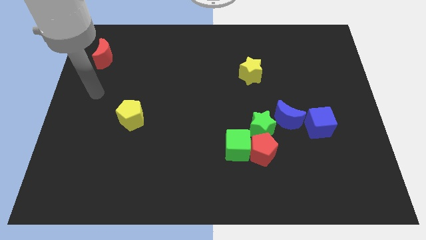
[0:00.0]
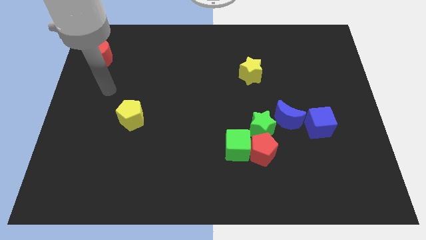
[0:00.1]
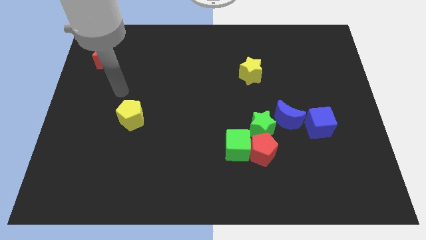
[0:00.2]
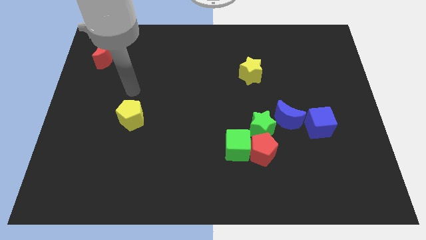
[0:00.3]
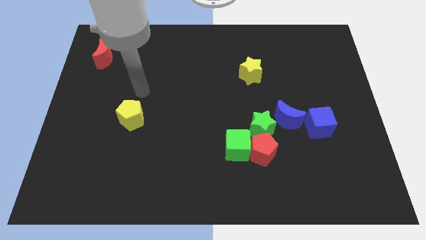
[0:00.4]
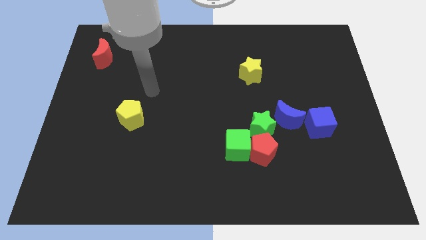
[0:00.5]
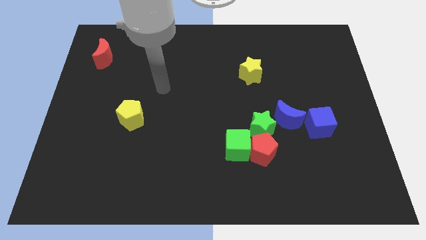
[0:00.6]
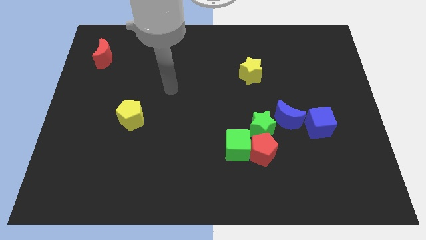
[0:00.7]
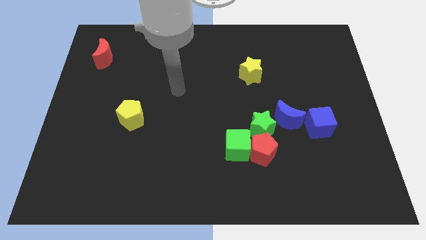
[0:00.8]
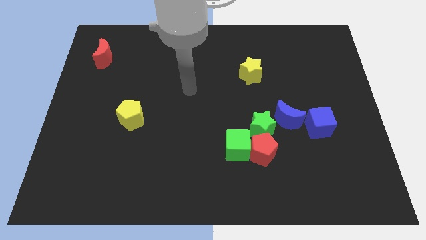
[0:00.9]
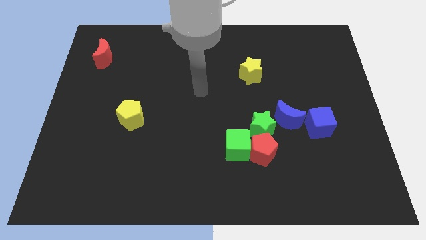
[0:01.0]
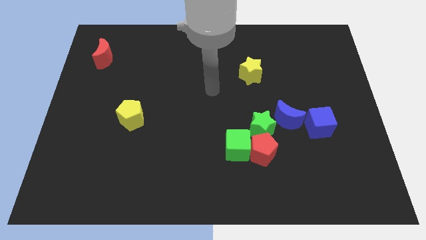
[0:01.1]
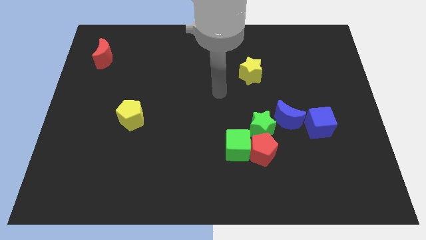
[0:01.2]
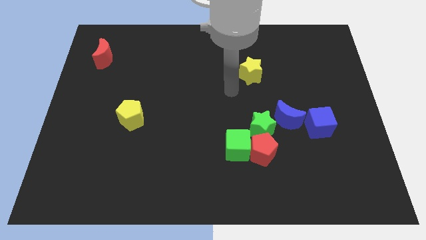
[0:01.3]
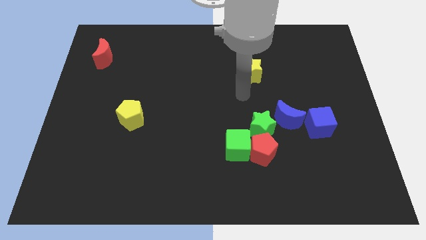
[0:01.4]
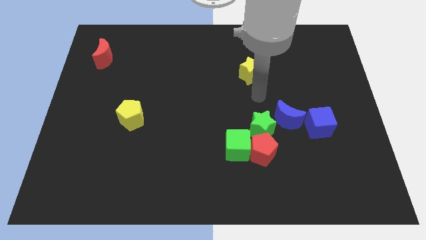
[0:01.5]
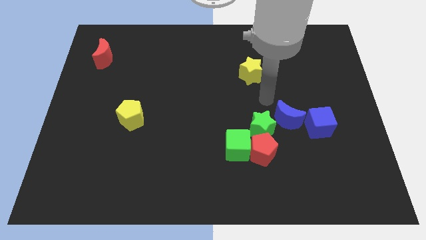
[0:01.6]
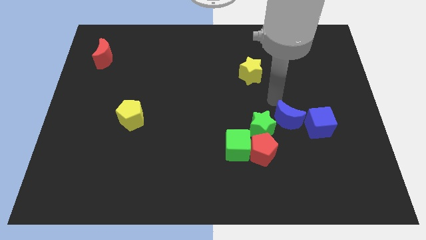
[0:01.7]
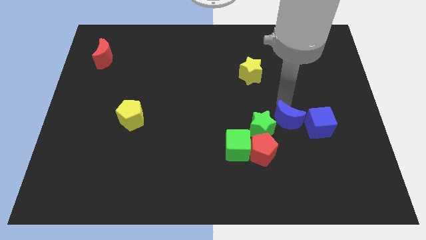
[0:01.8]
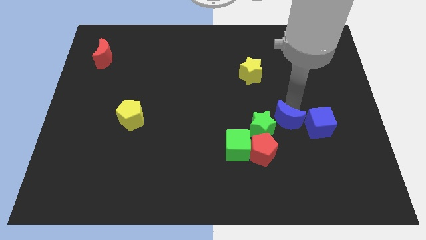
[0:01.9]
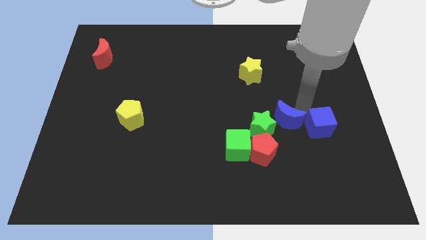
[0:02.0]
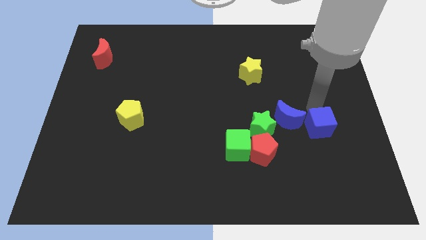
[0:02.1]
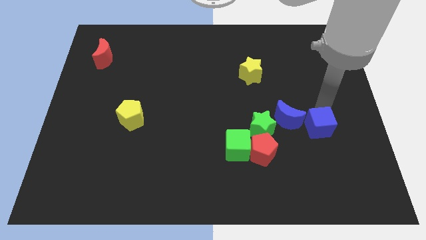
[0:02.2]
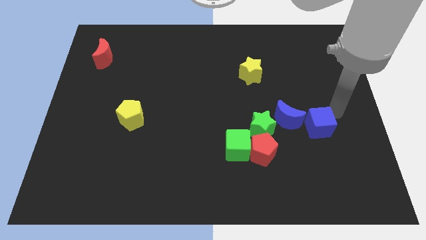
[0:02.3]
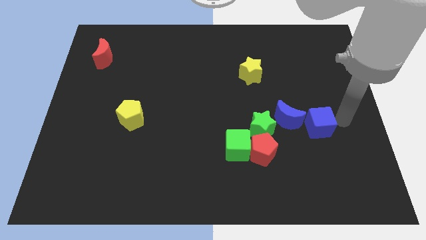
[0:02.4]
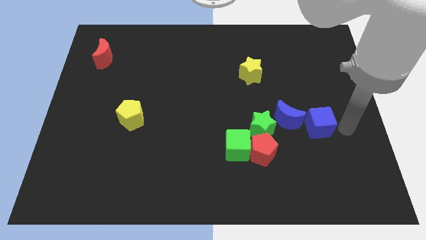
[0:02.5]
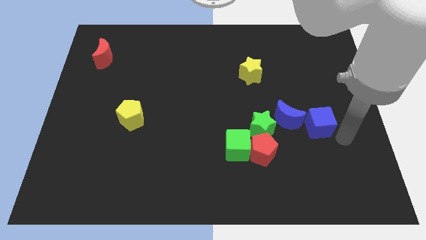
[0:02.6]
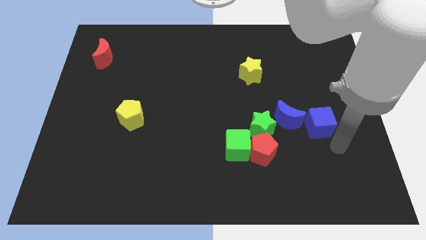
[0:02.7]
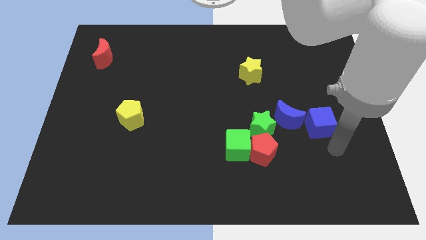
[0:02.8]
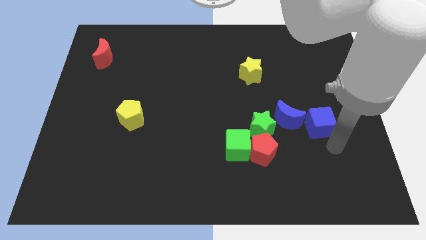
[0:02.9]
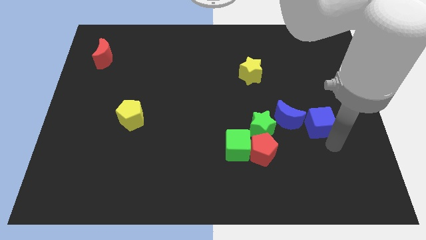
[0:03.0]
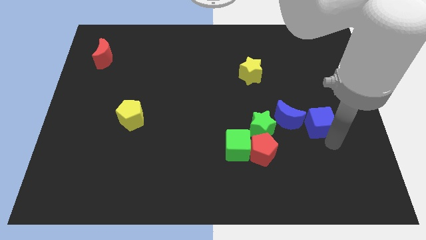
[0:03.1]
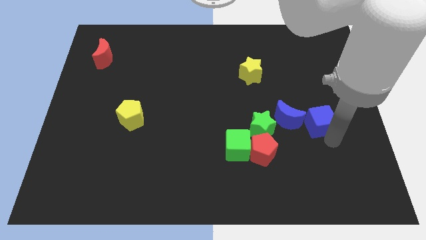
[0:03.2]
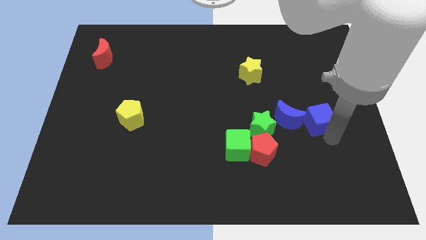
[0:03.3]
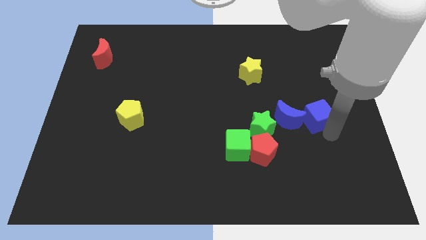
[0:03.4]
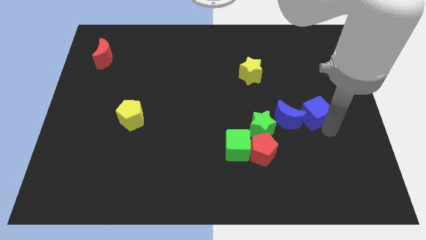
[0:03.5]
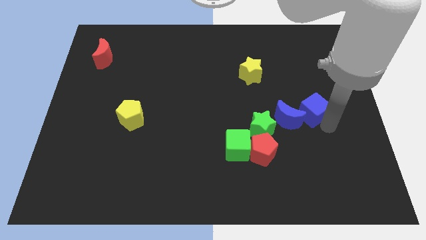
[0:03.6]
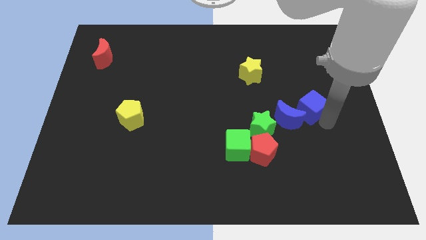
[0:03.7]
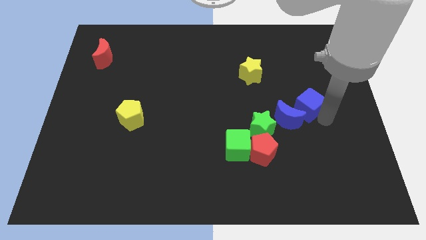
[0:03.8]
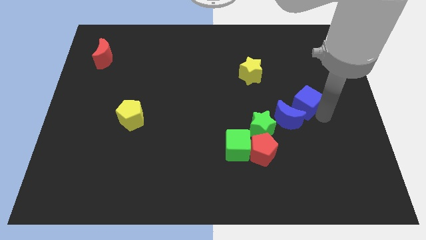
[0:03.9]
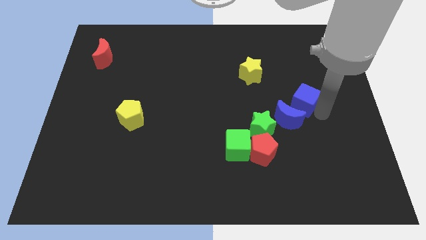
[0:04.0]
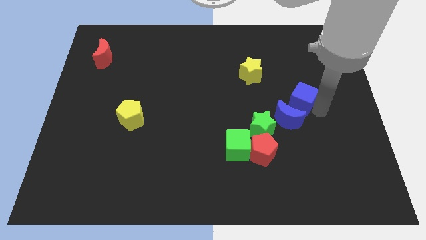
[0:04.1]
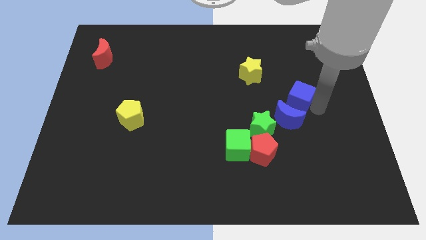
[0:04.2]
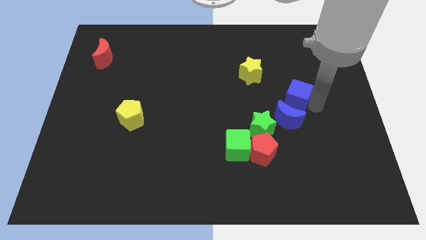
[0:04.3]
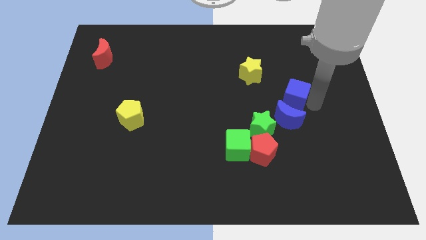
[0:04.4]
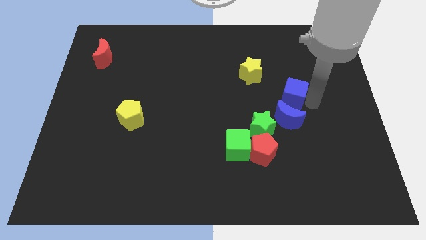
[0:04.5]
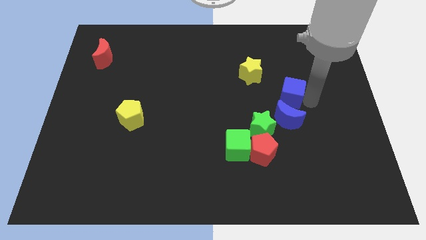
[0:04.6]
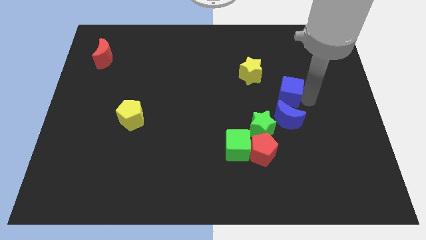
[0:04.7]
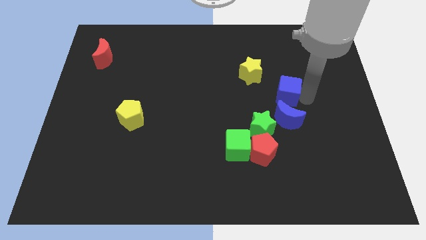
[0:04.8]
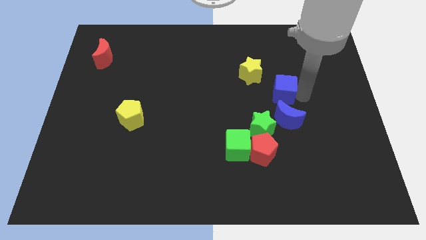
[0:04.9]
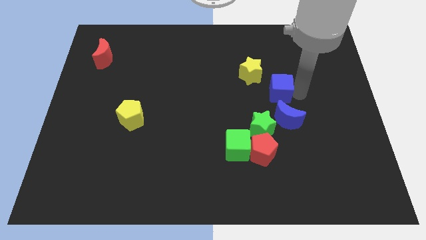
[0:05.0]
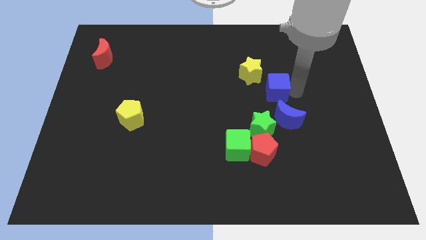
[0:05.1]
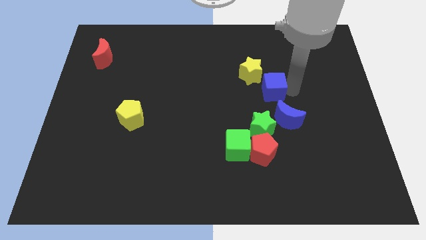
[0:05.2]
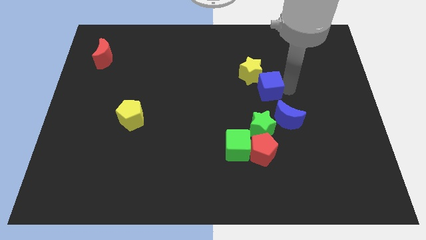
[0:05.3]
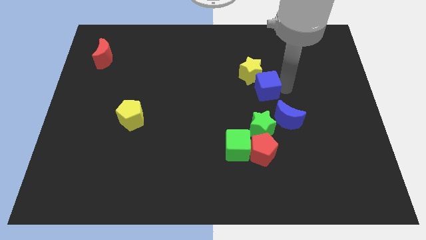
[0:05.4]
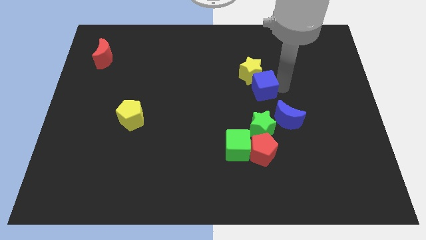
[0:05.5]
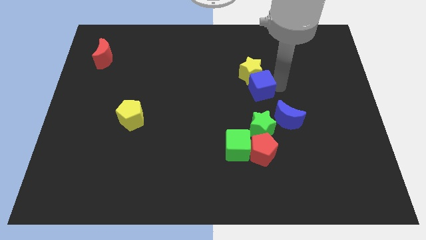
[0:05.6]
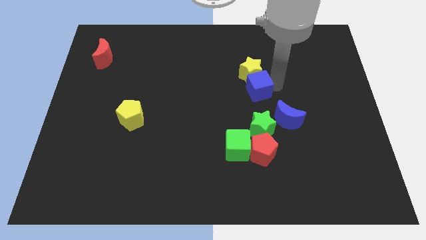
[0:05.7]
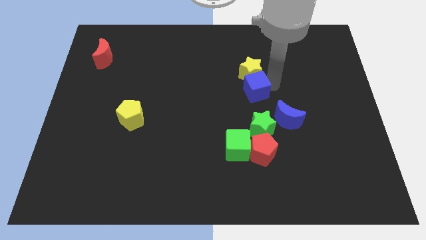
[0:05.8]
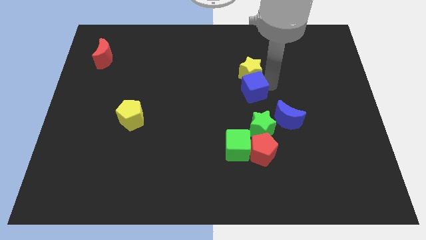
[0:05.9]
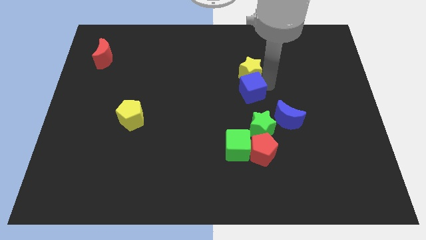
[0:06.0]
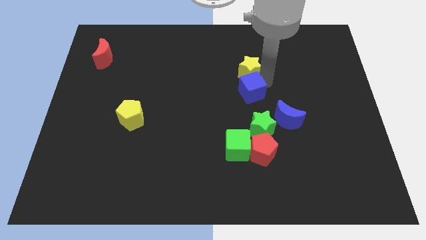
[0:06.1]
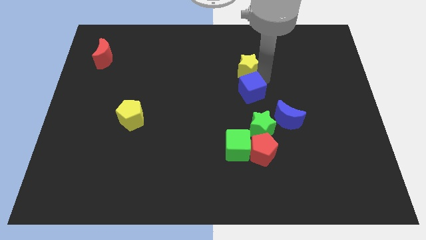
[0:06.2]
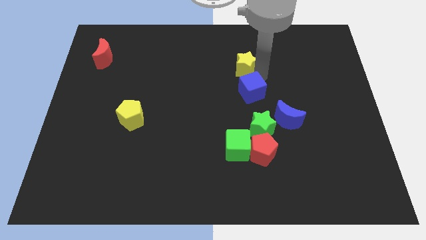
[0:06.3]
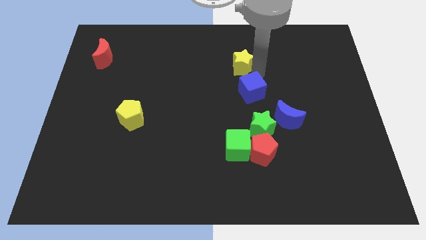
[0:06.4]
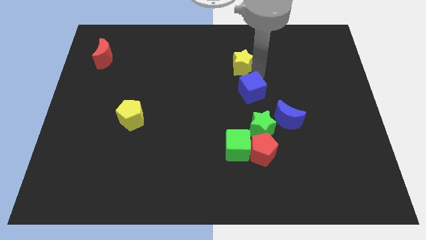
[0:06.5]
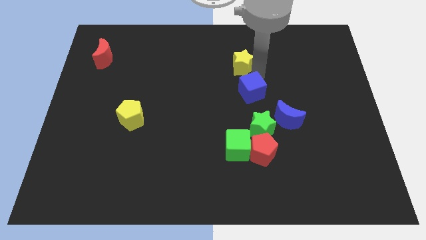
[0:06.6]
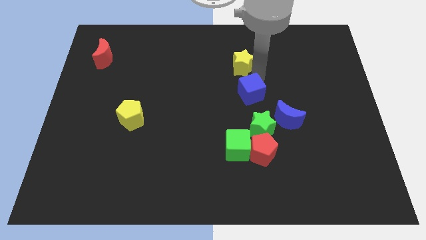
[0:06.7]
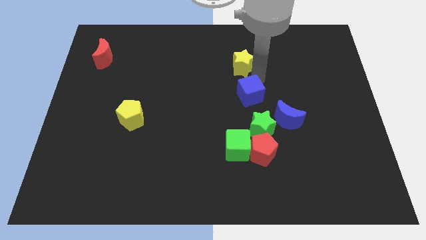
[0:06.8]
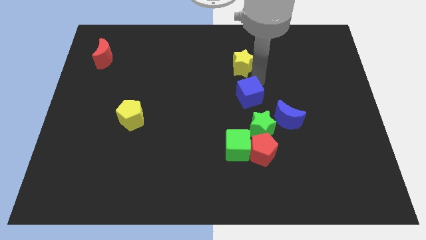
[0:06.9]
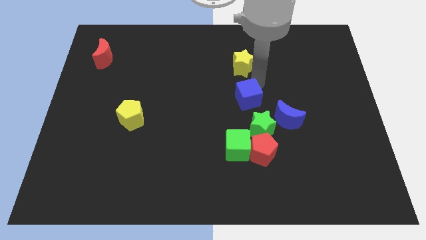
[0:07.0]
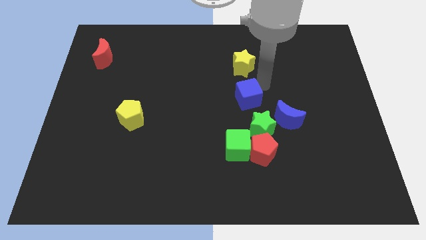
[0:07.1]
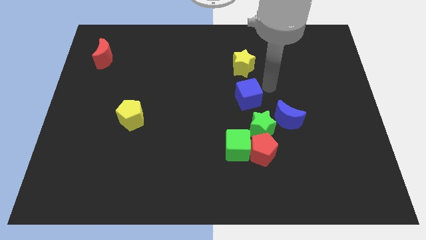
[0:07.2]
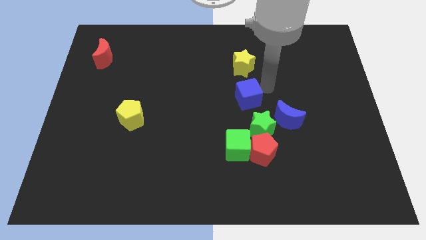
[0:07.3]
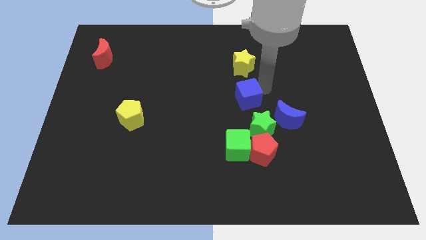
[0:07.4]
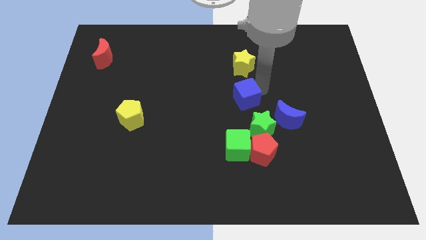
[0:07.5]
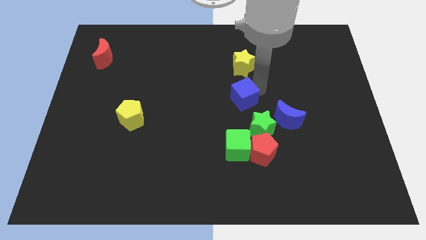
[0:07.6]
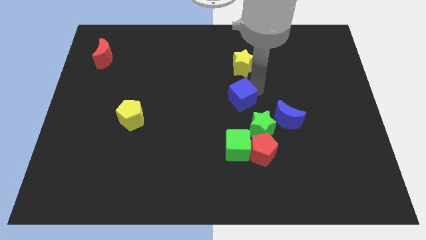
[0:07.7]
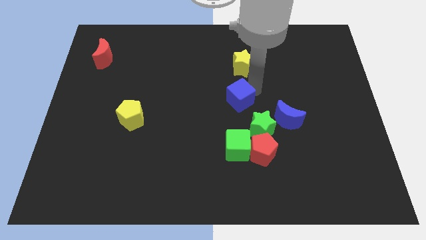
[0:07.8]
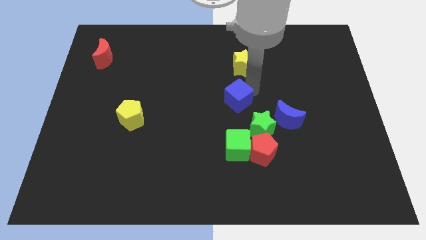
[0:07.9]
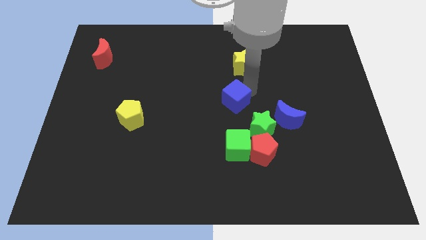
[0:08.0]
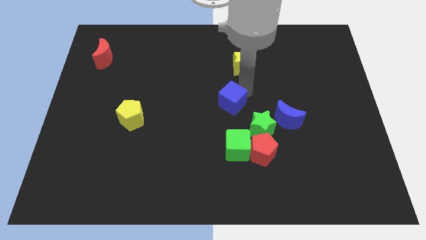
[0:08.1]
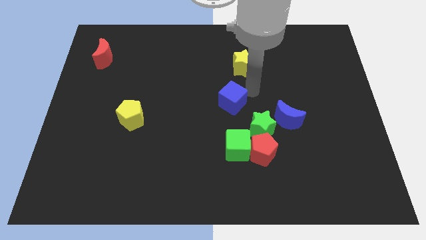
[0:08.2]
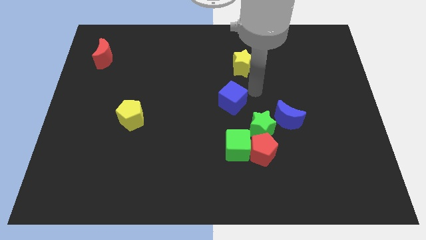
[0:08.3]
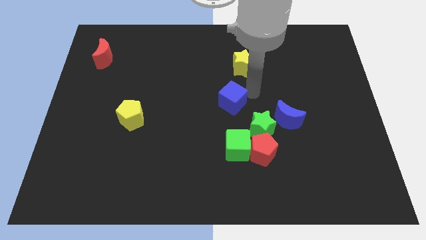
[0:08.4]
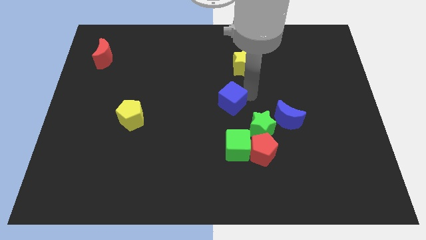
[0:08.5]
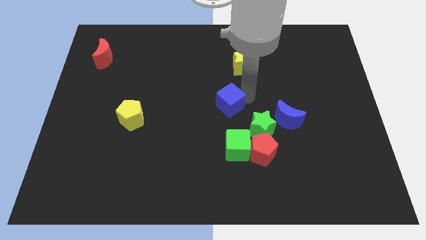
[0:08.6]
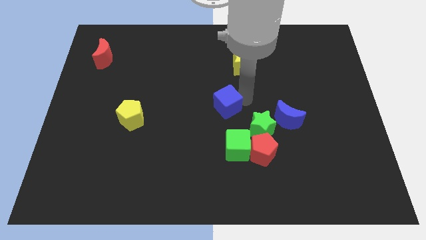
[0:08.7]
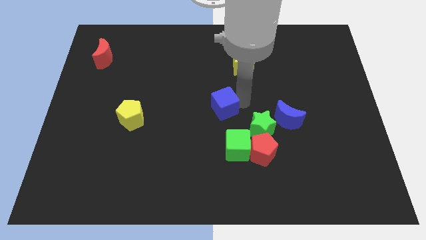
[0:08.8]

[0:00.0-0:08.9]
slide the blue cube to the left
